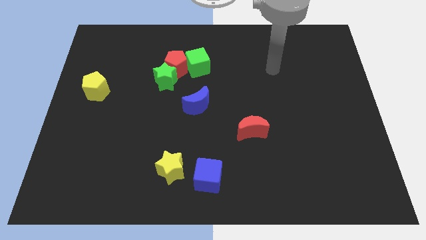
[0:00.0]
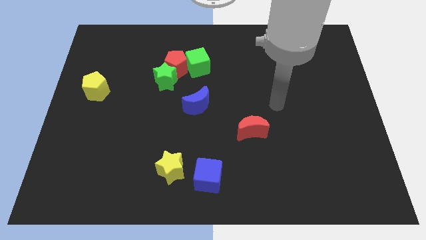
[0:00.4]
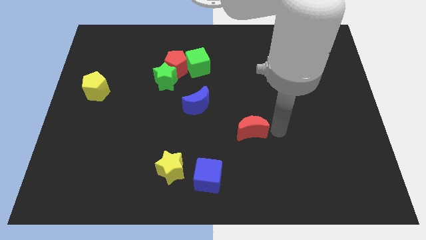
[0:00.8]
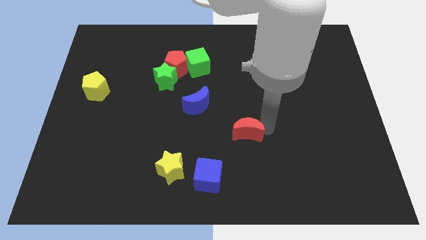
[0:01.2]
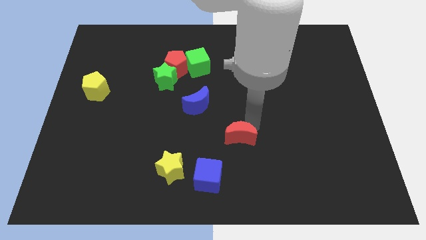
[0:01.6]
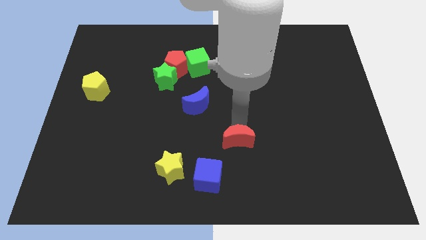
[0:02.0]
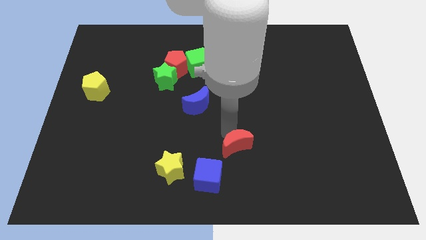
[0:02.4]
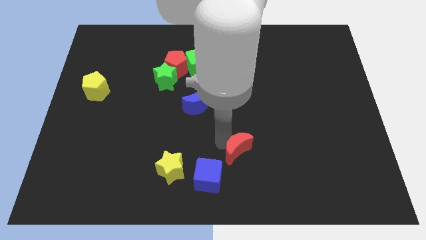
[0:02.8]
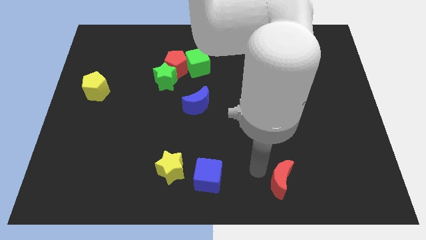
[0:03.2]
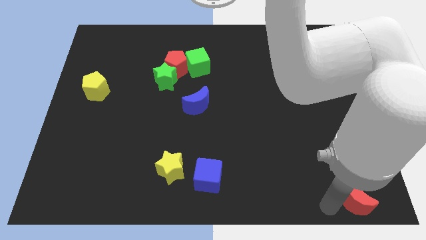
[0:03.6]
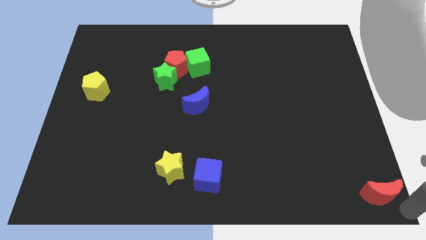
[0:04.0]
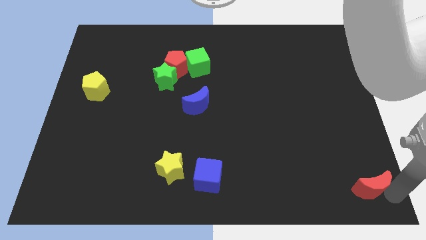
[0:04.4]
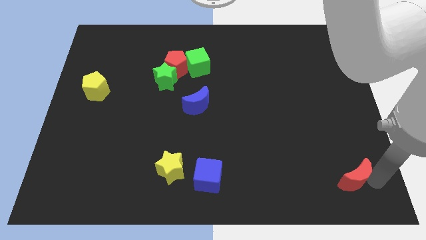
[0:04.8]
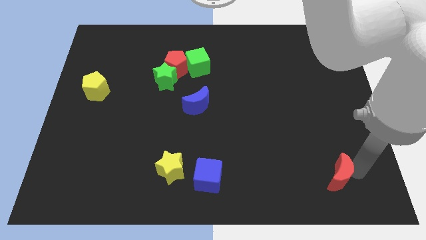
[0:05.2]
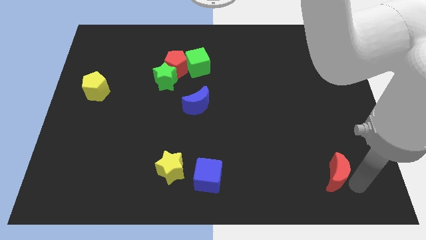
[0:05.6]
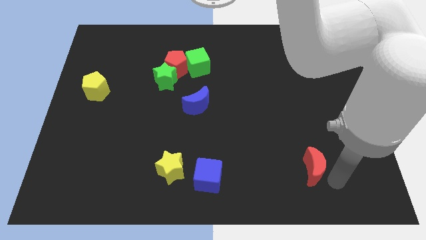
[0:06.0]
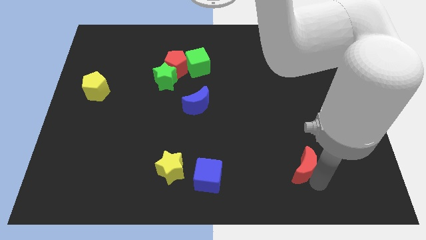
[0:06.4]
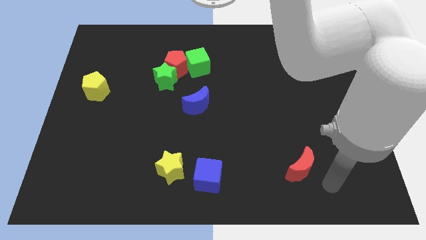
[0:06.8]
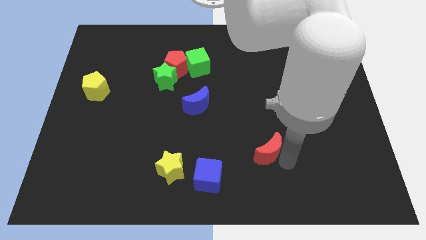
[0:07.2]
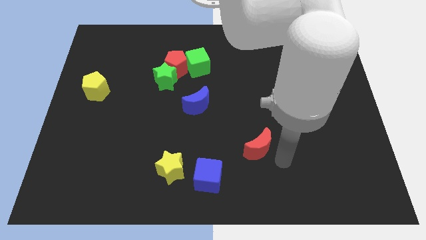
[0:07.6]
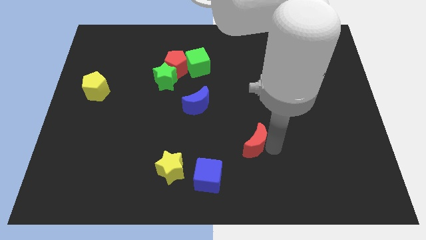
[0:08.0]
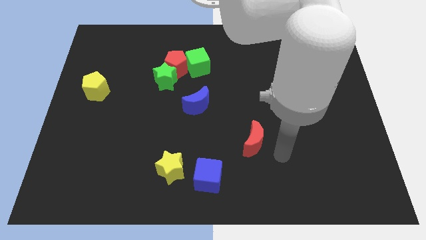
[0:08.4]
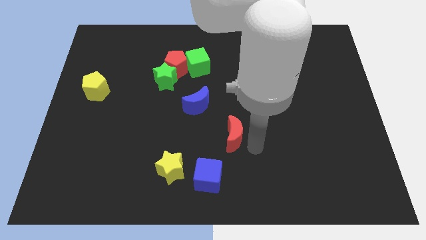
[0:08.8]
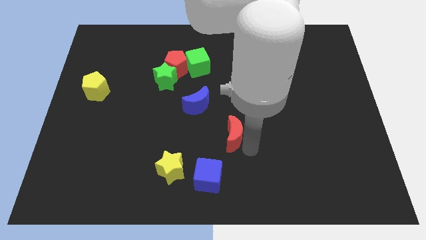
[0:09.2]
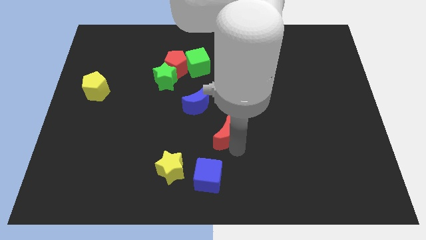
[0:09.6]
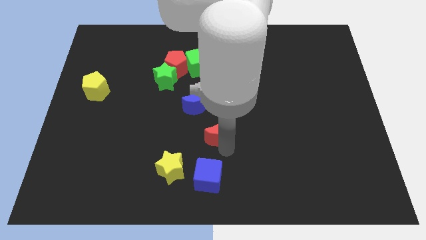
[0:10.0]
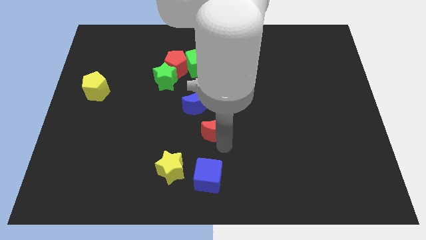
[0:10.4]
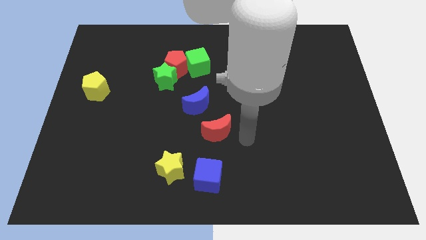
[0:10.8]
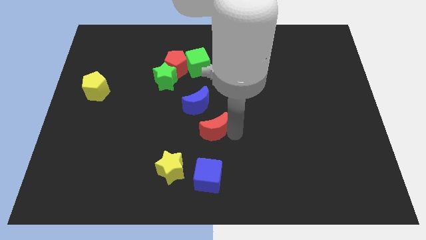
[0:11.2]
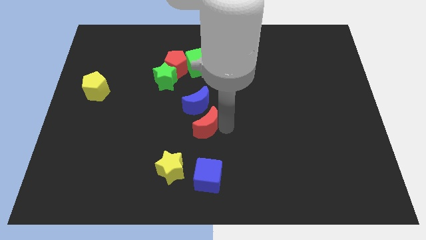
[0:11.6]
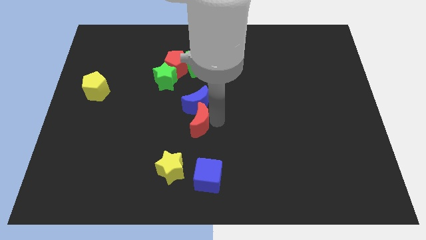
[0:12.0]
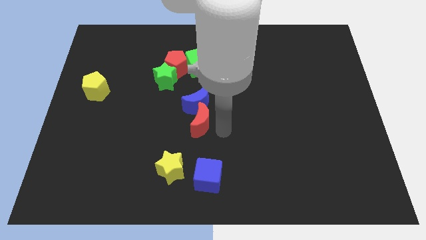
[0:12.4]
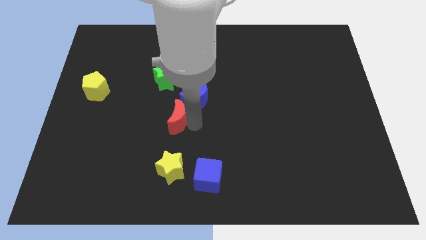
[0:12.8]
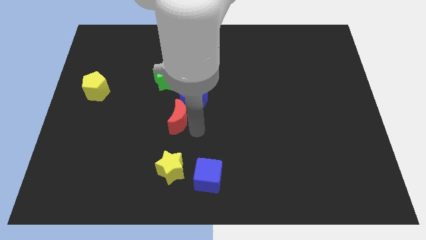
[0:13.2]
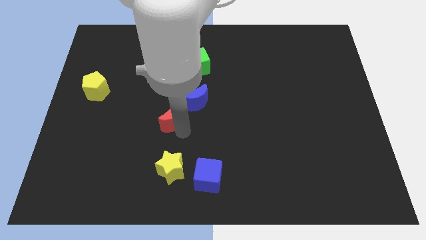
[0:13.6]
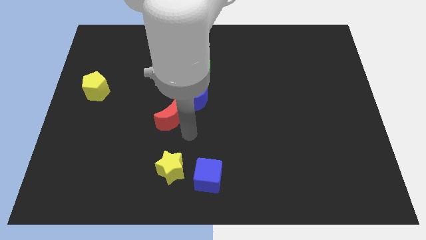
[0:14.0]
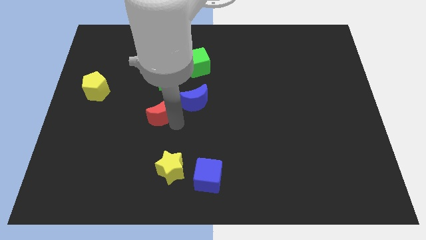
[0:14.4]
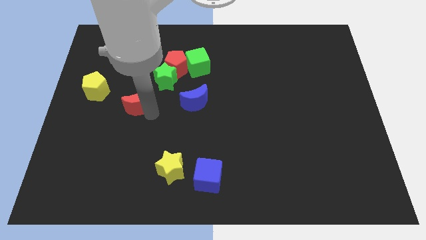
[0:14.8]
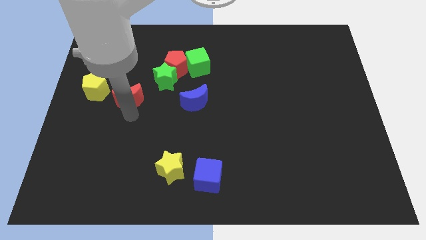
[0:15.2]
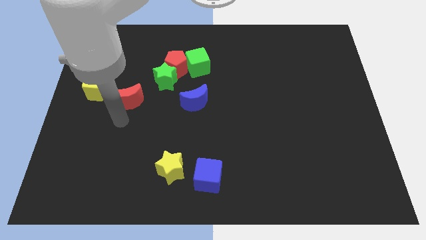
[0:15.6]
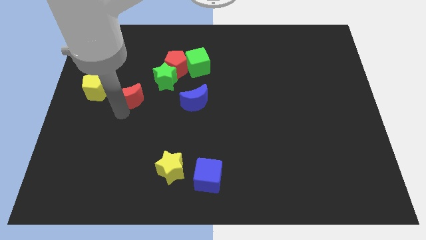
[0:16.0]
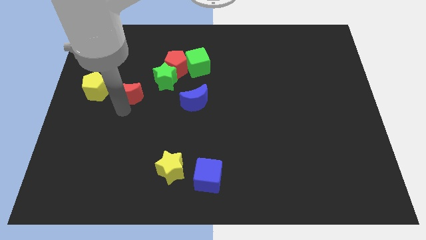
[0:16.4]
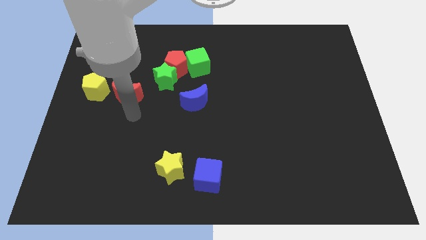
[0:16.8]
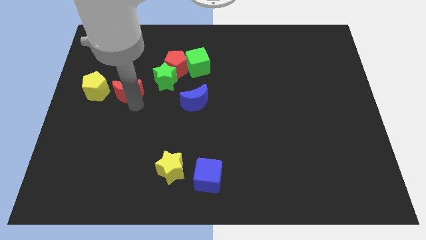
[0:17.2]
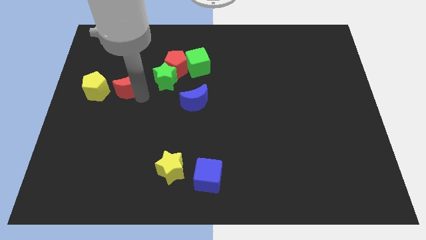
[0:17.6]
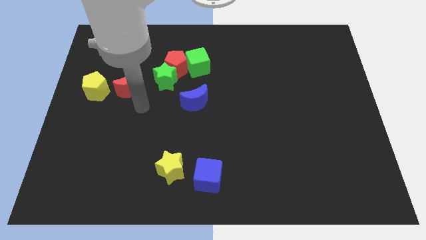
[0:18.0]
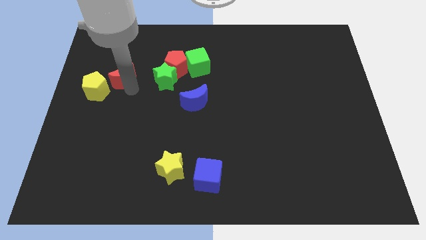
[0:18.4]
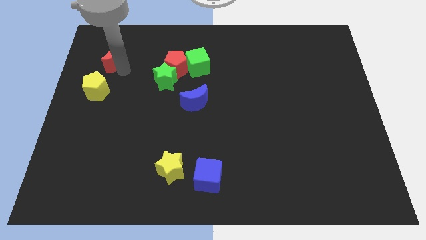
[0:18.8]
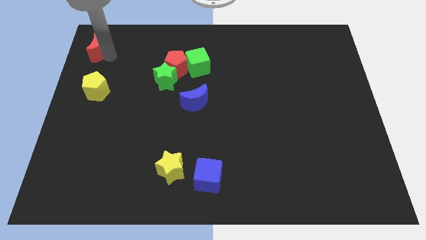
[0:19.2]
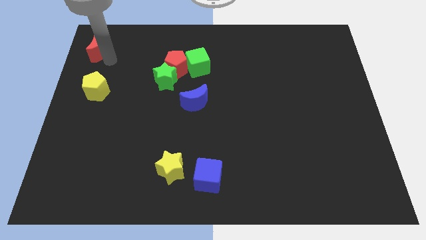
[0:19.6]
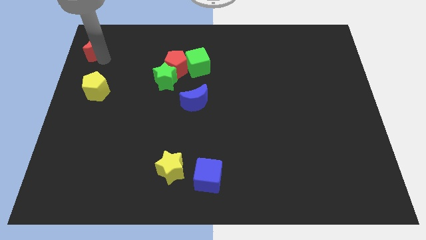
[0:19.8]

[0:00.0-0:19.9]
slide the red moon to the upper left corner
